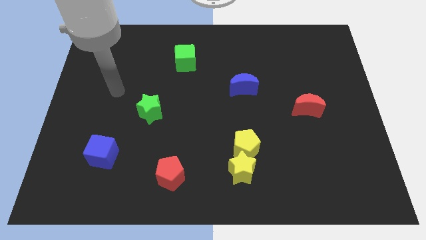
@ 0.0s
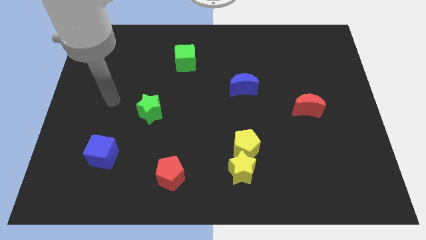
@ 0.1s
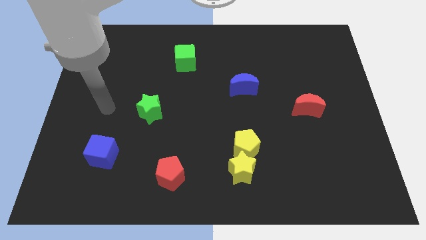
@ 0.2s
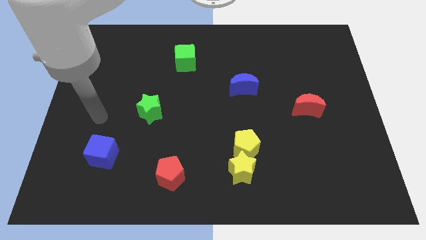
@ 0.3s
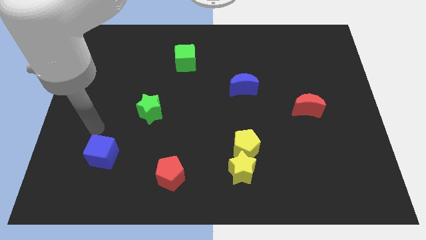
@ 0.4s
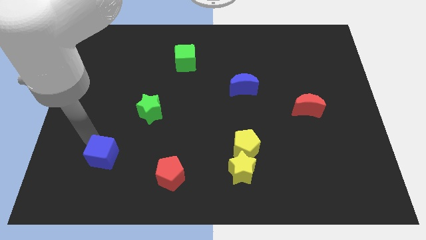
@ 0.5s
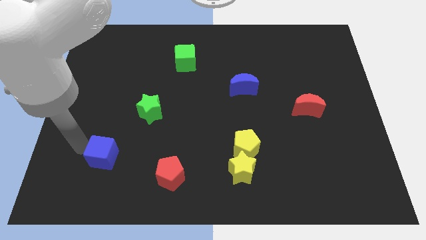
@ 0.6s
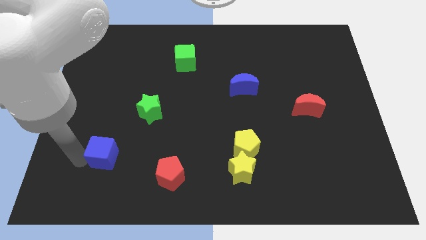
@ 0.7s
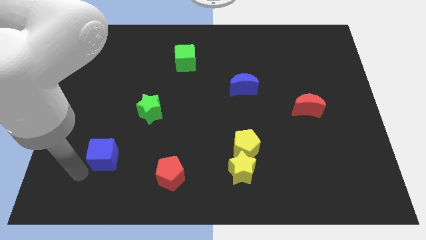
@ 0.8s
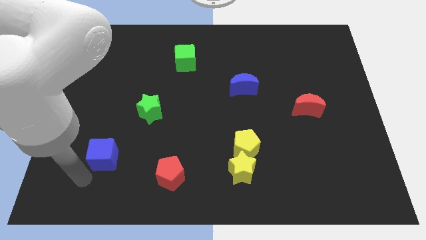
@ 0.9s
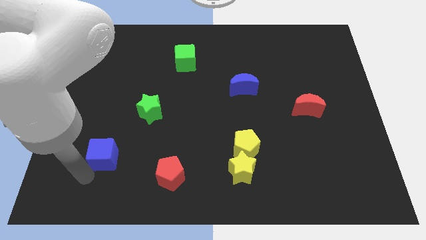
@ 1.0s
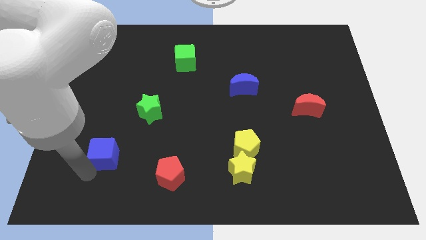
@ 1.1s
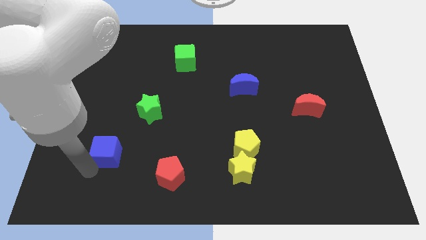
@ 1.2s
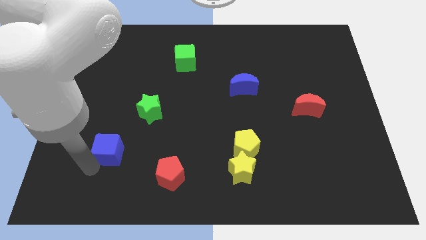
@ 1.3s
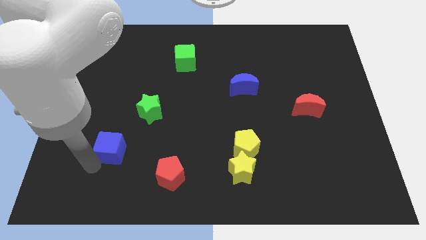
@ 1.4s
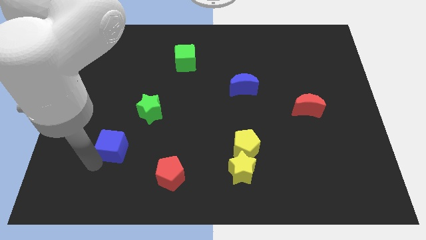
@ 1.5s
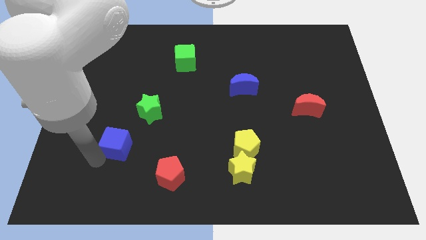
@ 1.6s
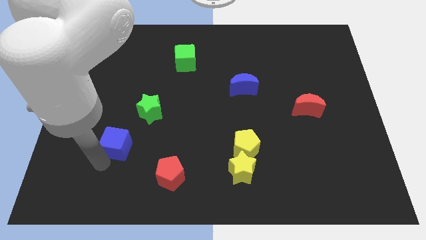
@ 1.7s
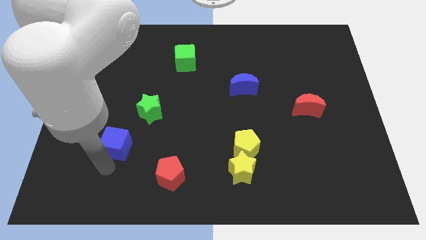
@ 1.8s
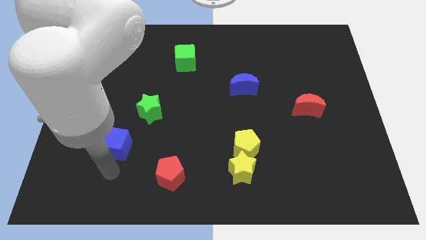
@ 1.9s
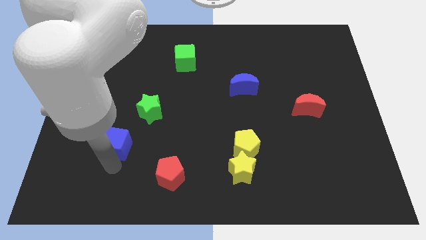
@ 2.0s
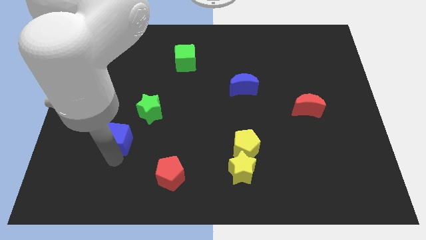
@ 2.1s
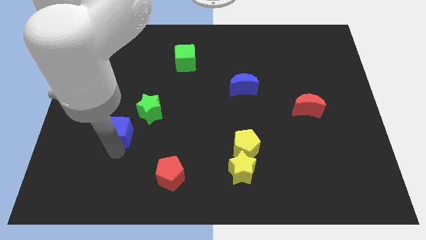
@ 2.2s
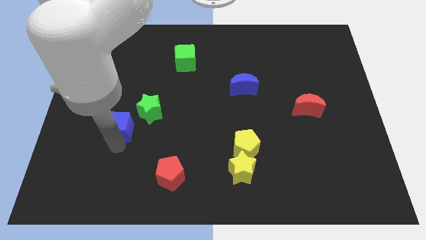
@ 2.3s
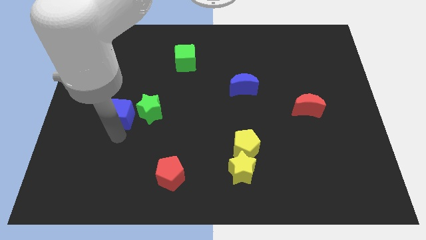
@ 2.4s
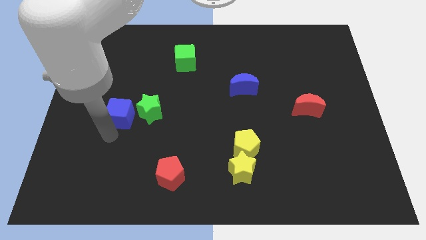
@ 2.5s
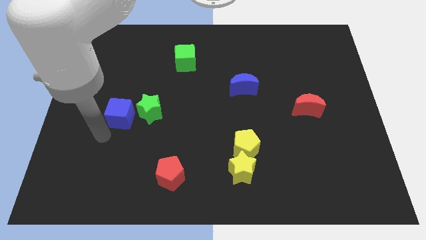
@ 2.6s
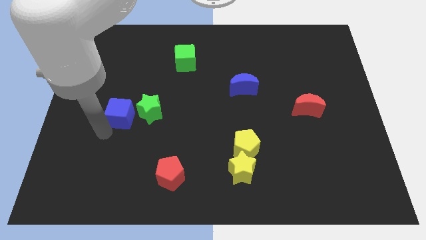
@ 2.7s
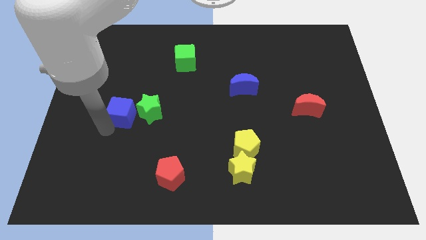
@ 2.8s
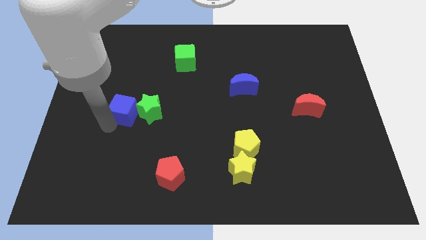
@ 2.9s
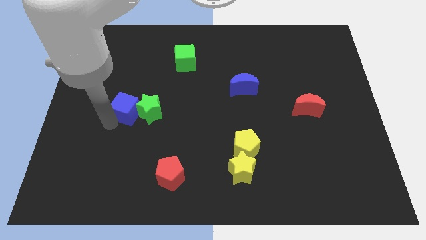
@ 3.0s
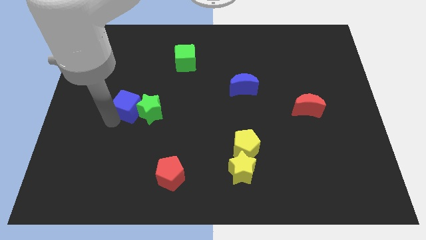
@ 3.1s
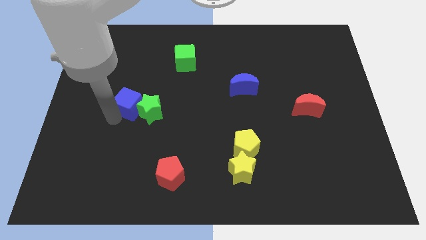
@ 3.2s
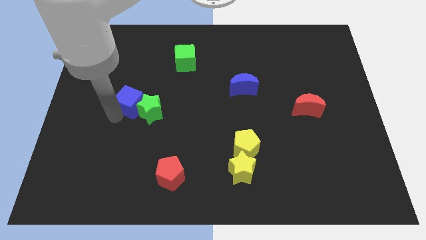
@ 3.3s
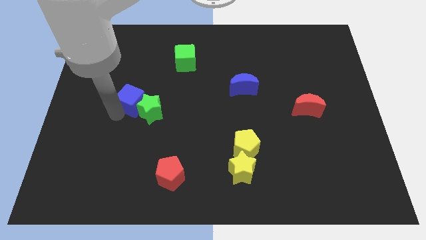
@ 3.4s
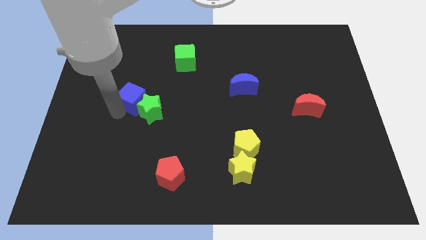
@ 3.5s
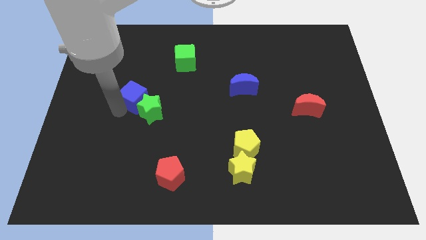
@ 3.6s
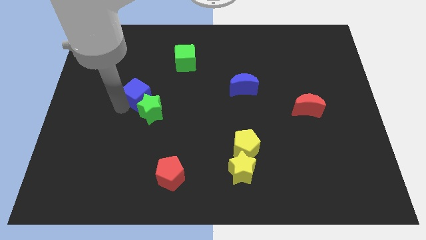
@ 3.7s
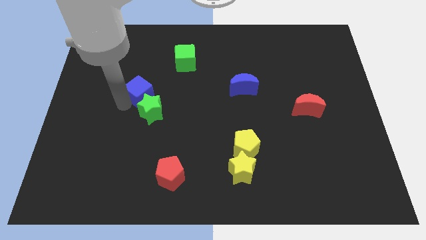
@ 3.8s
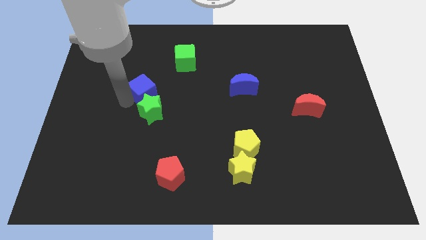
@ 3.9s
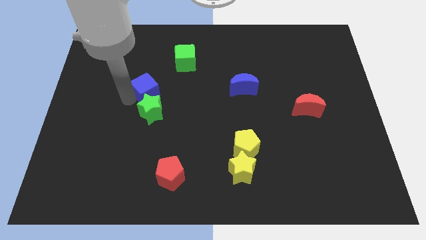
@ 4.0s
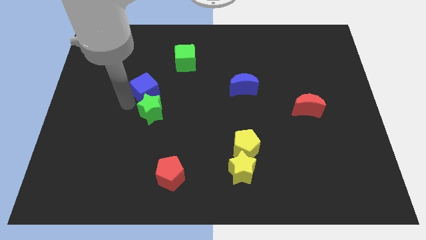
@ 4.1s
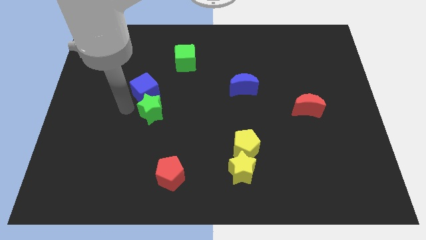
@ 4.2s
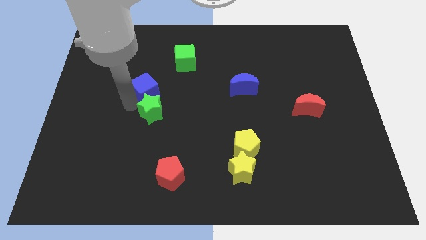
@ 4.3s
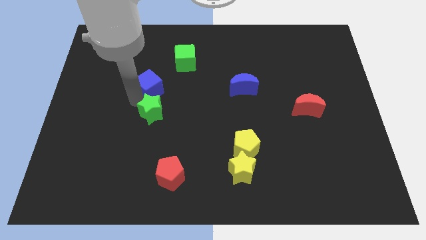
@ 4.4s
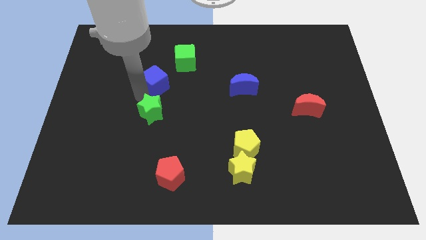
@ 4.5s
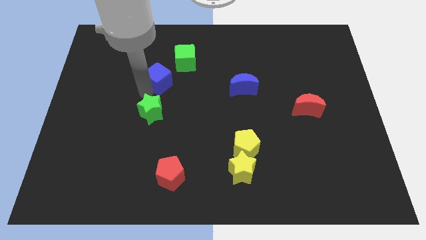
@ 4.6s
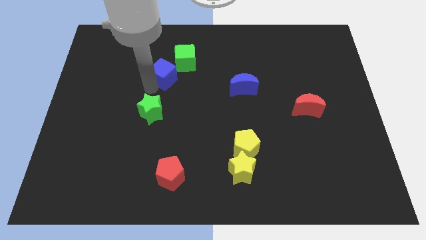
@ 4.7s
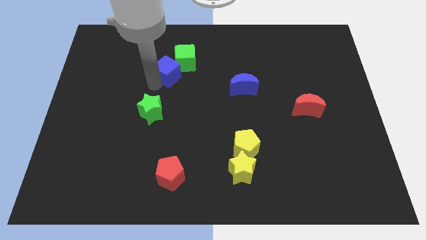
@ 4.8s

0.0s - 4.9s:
put the blue cube towards the green cube

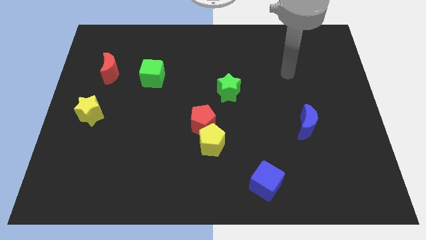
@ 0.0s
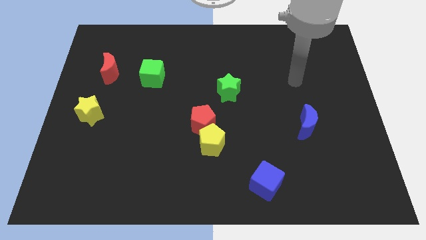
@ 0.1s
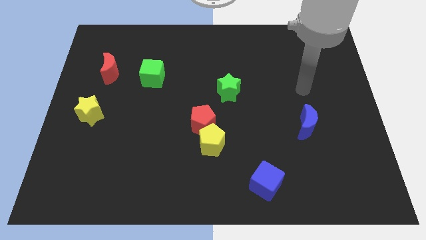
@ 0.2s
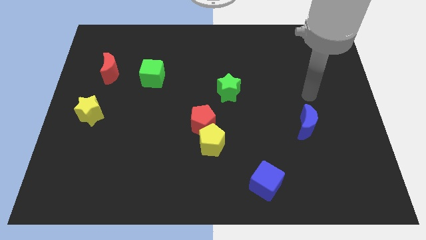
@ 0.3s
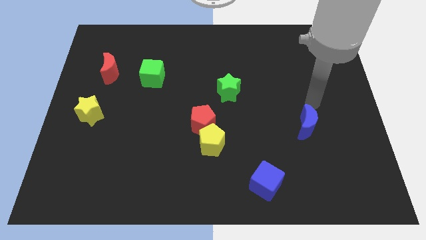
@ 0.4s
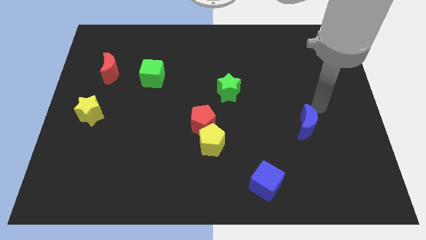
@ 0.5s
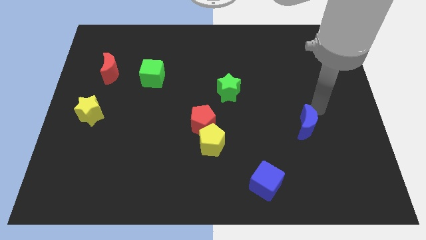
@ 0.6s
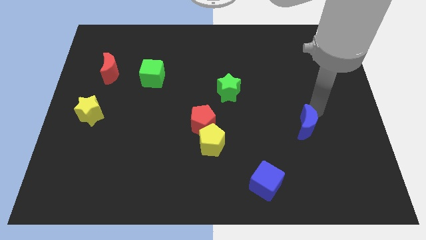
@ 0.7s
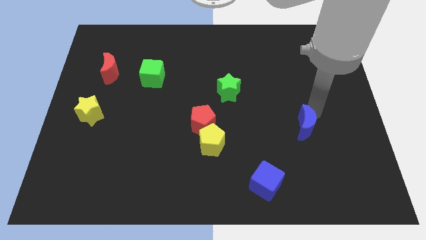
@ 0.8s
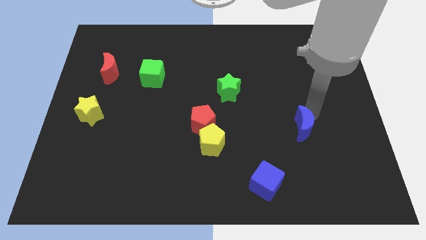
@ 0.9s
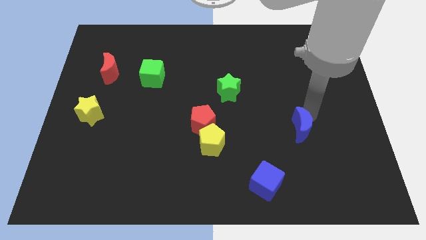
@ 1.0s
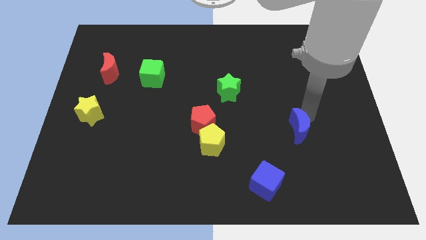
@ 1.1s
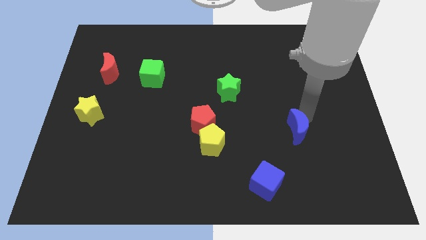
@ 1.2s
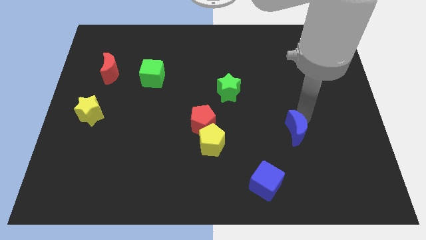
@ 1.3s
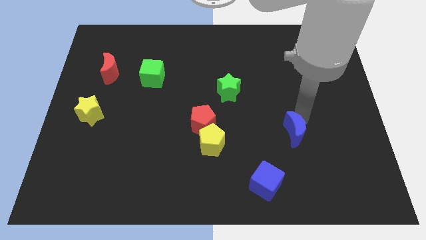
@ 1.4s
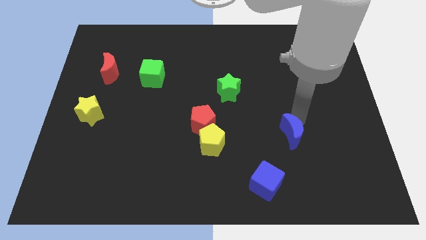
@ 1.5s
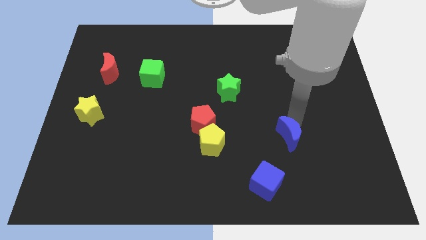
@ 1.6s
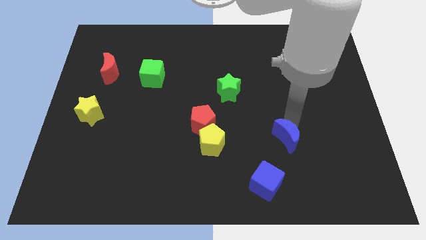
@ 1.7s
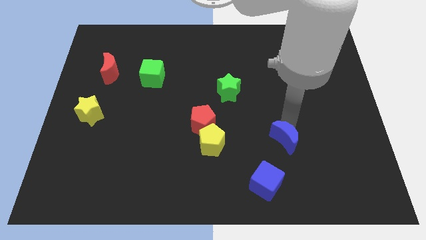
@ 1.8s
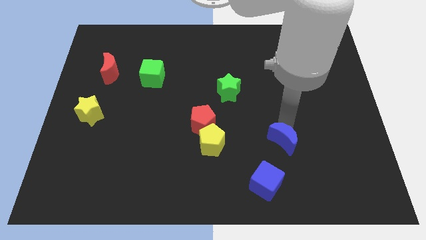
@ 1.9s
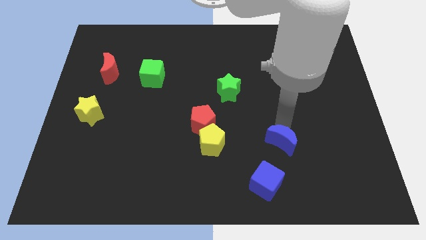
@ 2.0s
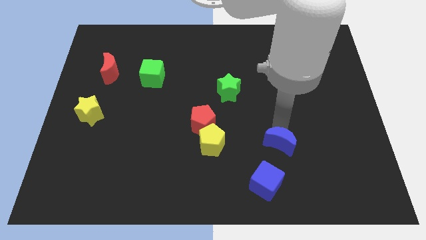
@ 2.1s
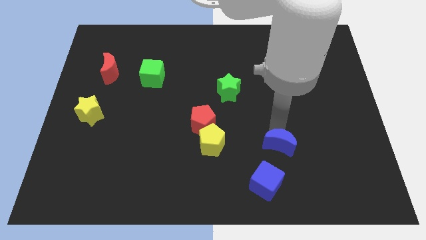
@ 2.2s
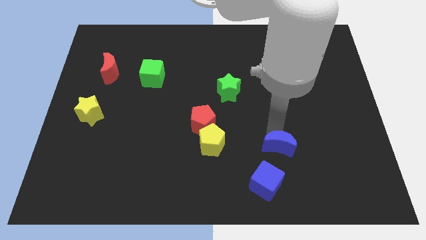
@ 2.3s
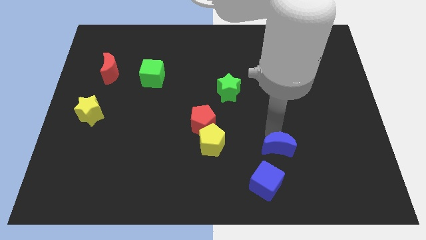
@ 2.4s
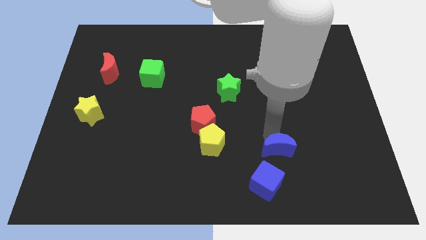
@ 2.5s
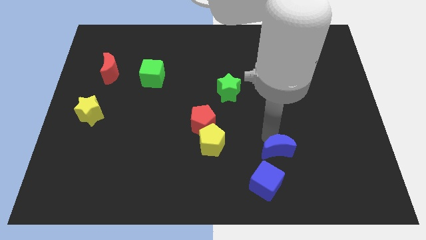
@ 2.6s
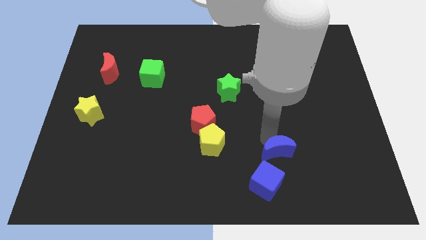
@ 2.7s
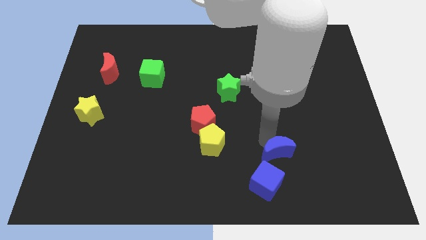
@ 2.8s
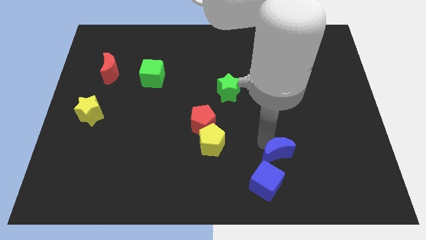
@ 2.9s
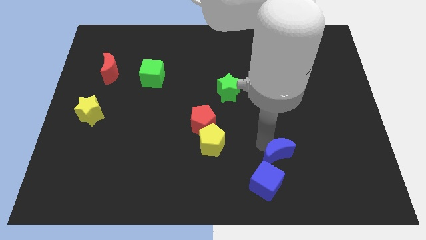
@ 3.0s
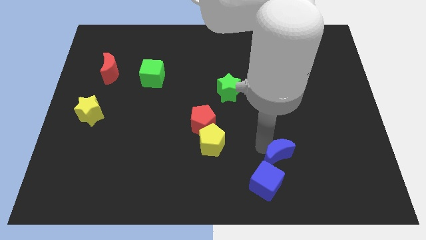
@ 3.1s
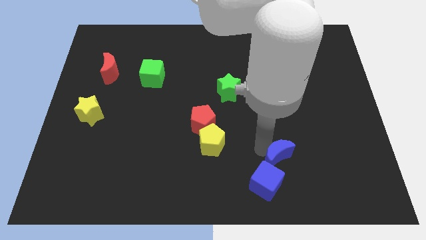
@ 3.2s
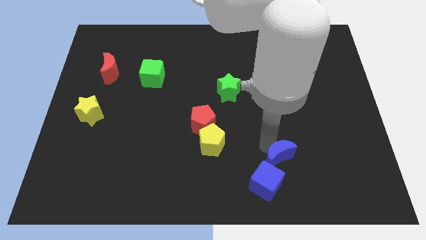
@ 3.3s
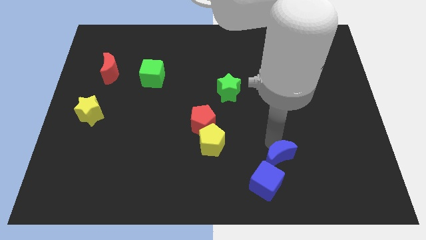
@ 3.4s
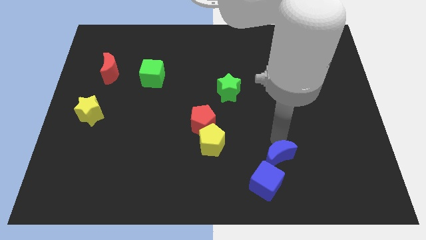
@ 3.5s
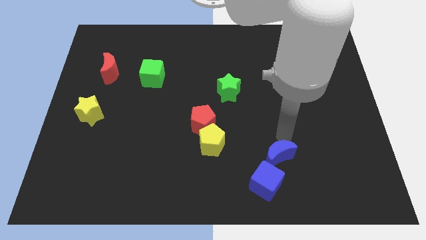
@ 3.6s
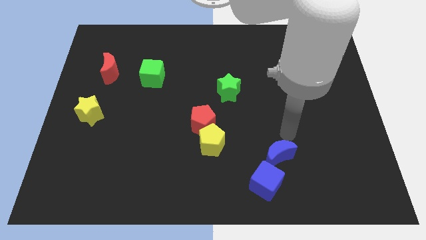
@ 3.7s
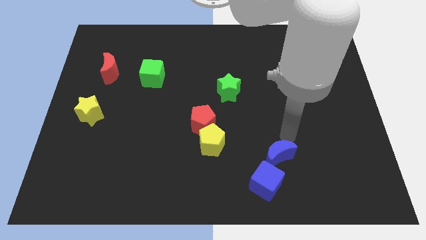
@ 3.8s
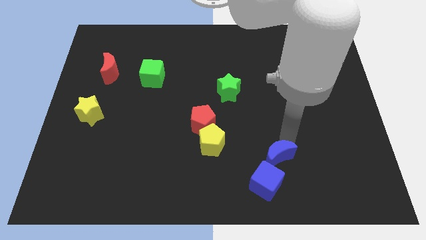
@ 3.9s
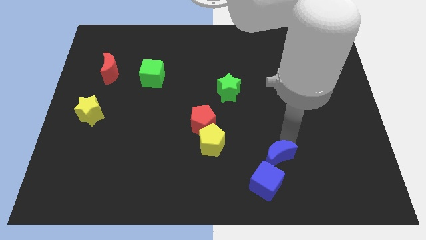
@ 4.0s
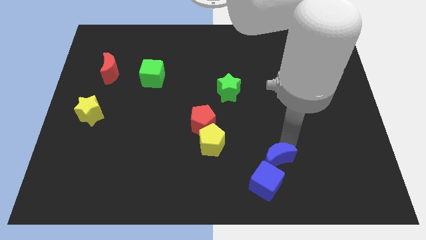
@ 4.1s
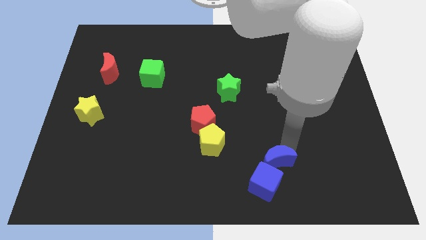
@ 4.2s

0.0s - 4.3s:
move the blue moon close to the blue cube
